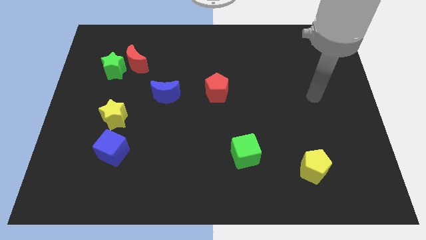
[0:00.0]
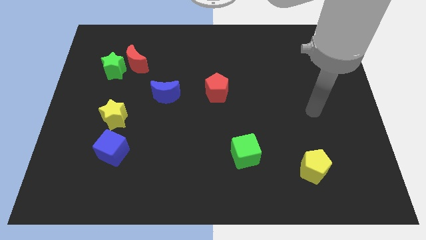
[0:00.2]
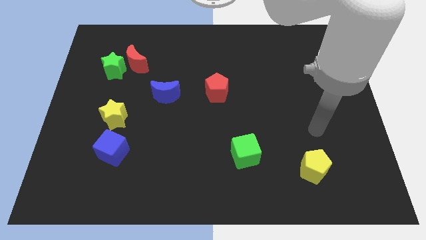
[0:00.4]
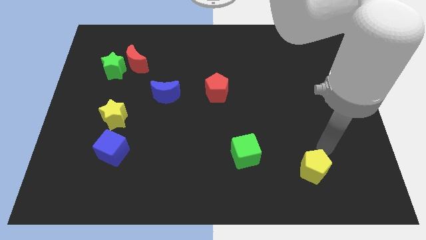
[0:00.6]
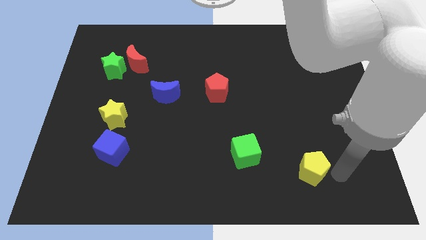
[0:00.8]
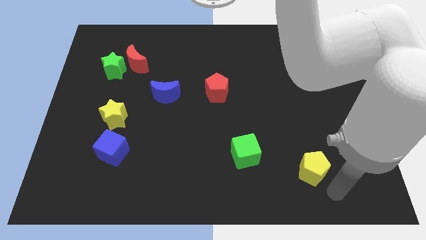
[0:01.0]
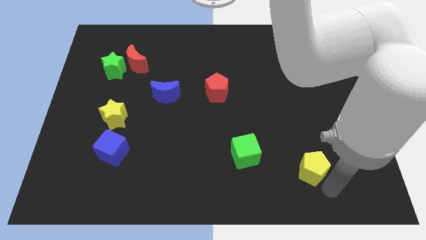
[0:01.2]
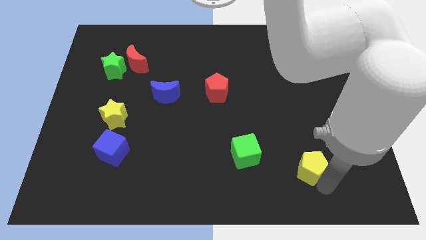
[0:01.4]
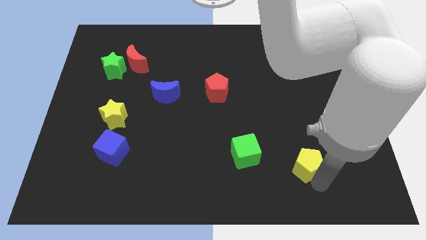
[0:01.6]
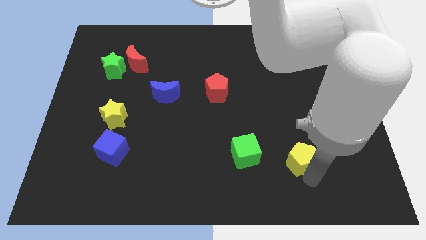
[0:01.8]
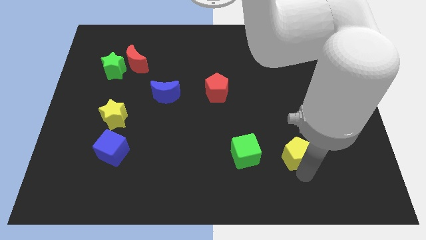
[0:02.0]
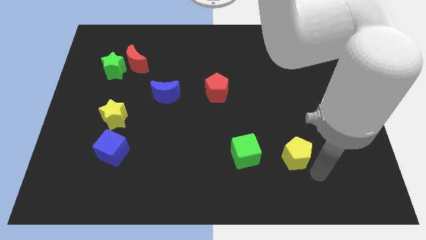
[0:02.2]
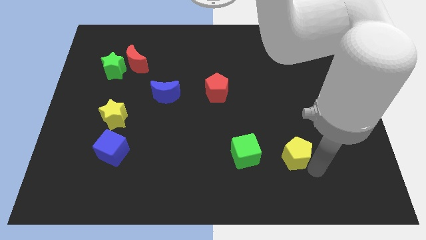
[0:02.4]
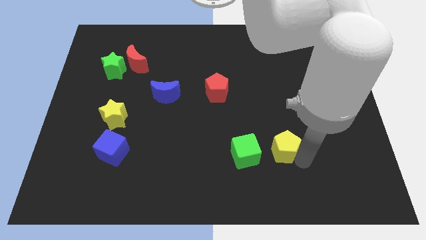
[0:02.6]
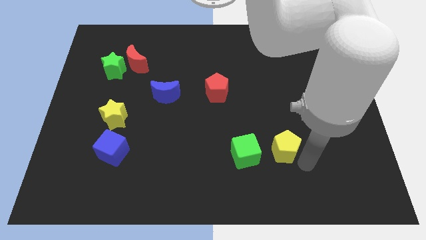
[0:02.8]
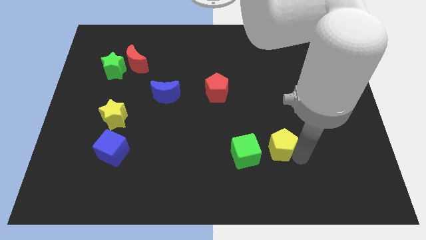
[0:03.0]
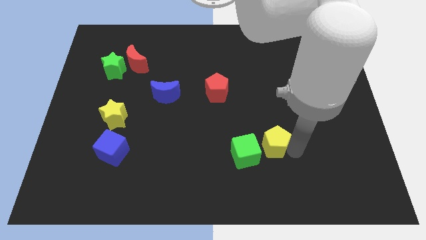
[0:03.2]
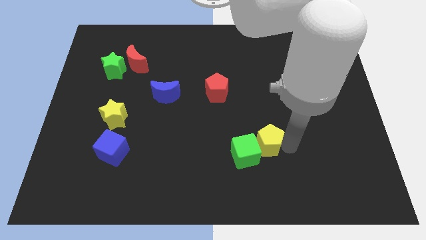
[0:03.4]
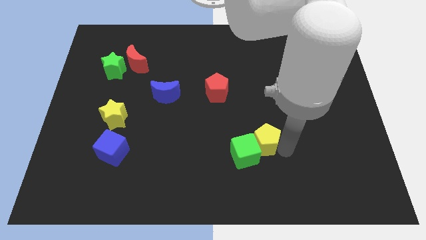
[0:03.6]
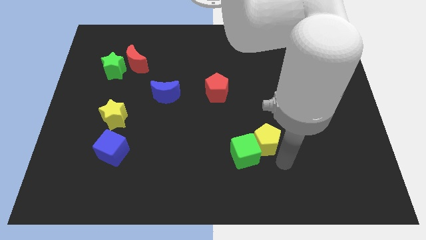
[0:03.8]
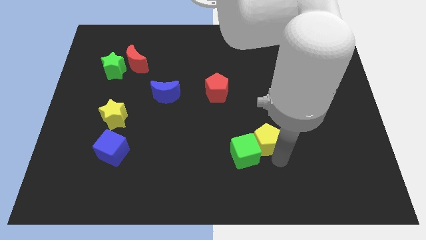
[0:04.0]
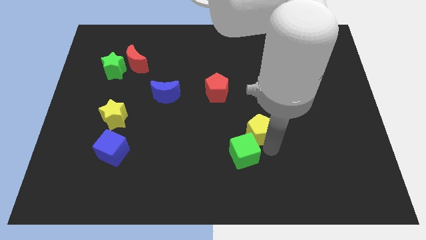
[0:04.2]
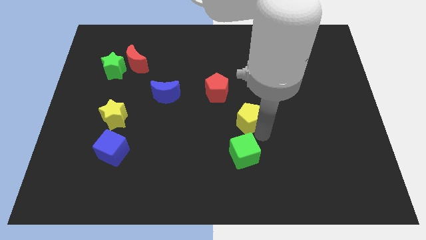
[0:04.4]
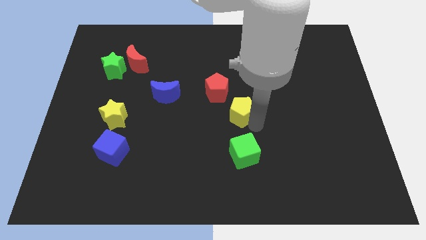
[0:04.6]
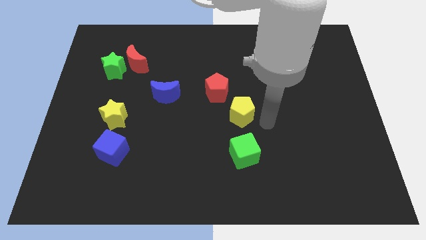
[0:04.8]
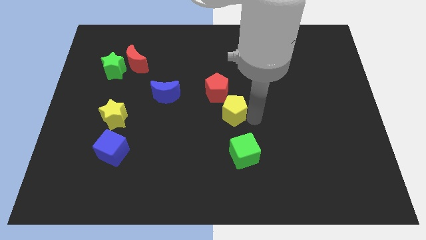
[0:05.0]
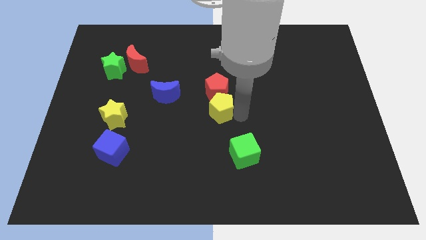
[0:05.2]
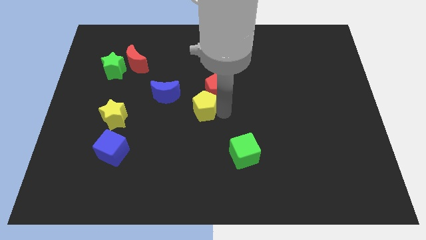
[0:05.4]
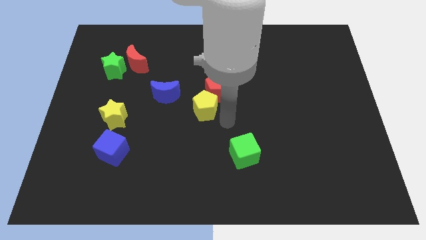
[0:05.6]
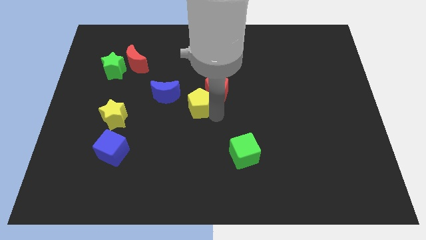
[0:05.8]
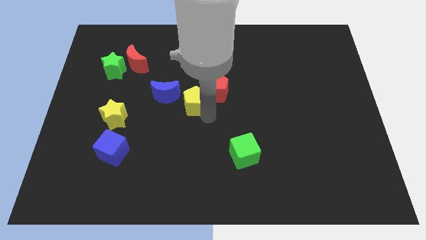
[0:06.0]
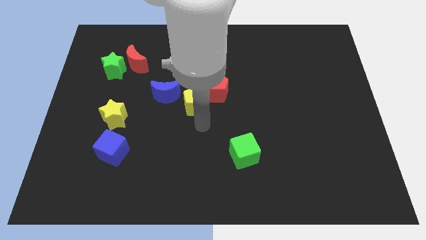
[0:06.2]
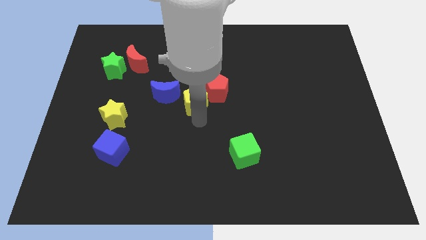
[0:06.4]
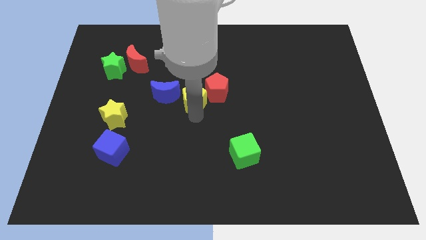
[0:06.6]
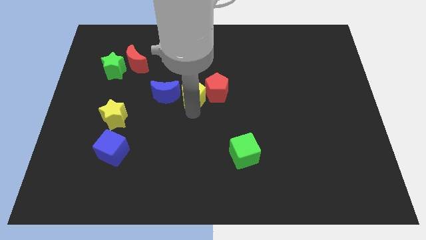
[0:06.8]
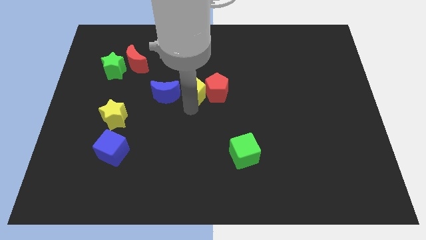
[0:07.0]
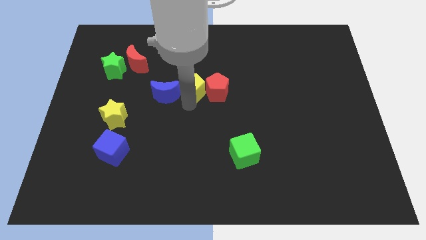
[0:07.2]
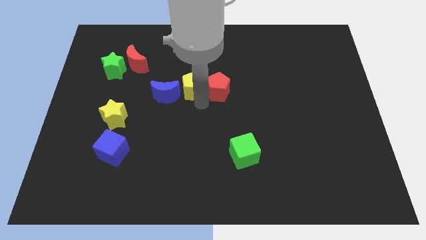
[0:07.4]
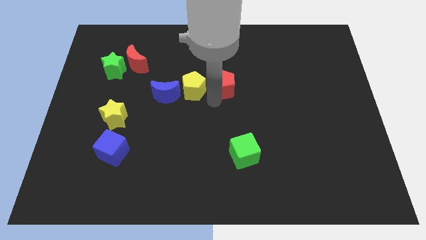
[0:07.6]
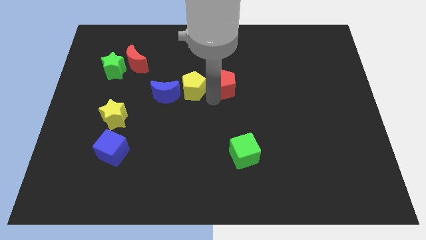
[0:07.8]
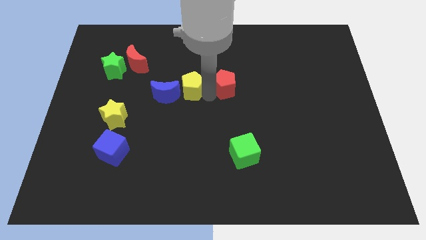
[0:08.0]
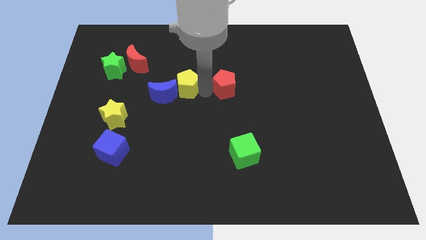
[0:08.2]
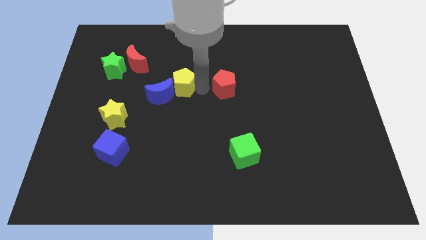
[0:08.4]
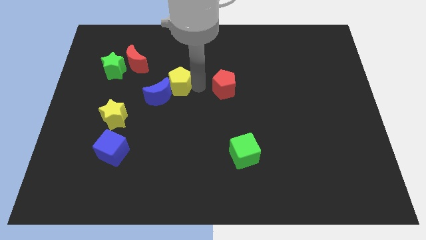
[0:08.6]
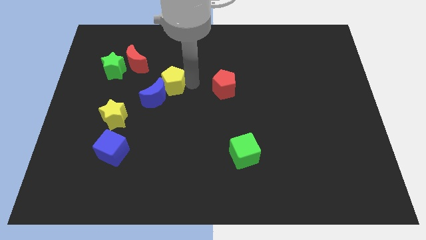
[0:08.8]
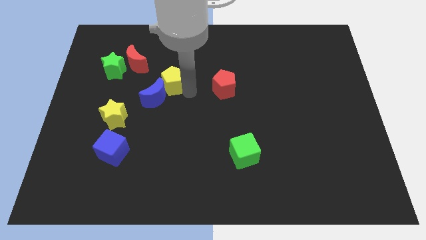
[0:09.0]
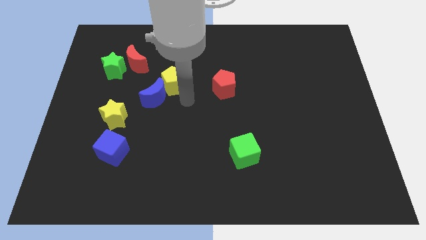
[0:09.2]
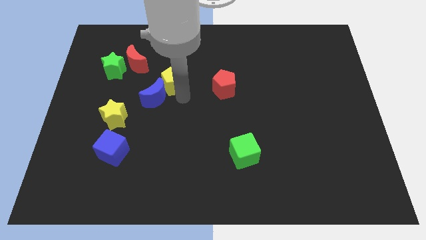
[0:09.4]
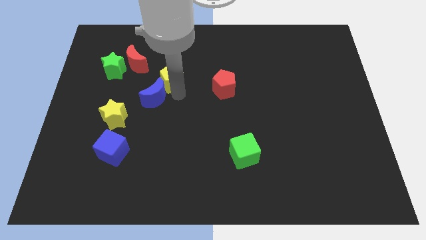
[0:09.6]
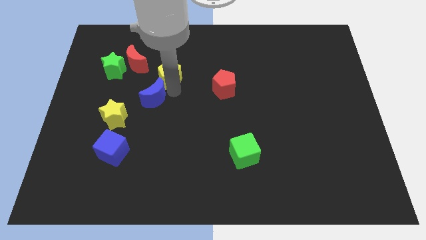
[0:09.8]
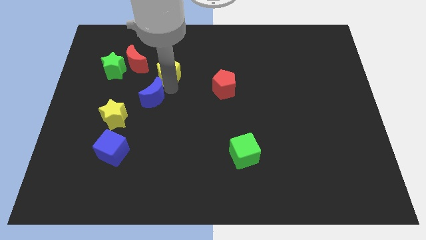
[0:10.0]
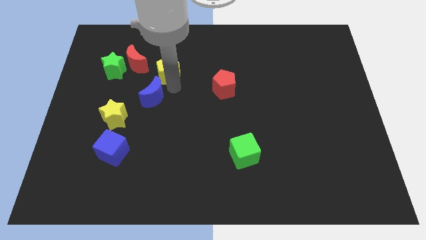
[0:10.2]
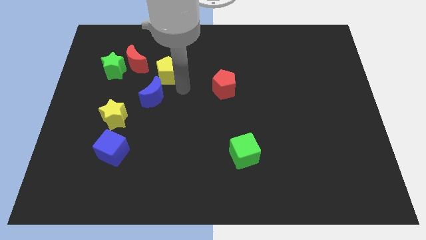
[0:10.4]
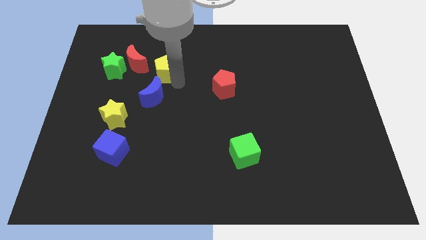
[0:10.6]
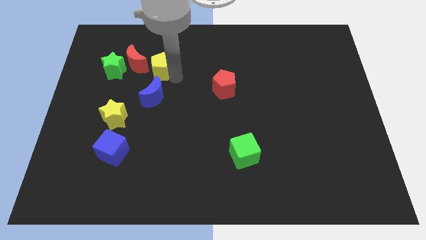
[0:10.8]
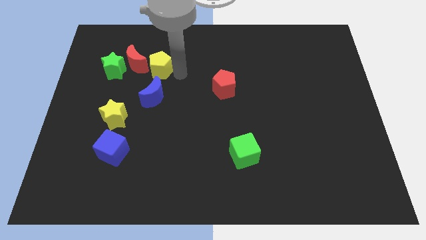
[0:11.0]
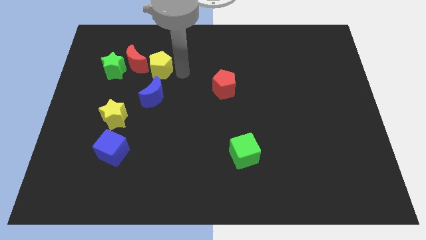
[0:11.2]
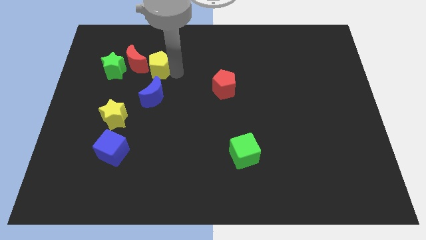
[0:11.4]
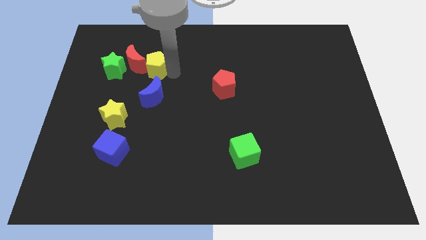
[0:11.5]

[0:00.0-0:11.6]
slide the yellow pentagon to the red moon

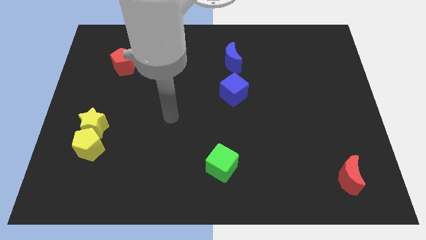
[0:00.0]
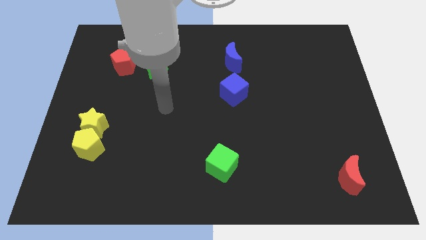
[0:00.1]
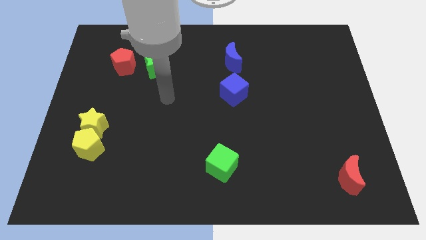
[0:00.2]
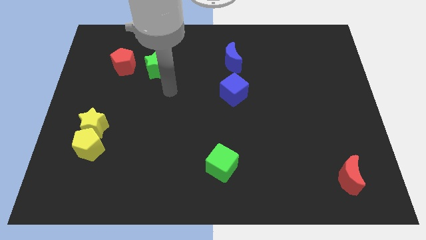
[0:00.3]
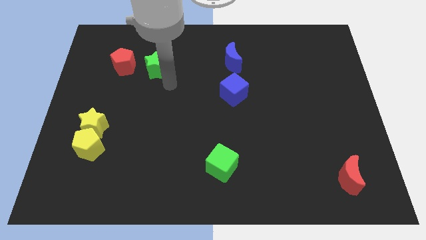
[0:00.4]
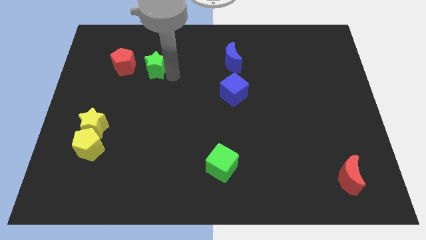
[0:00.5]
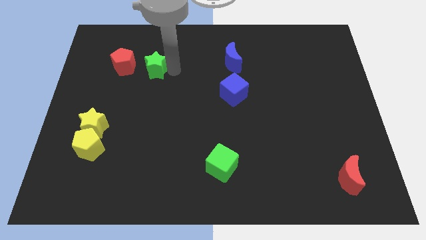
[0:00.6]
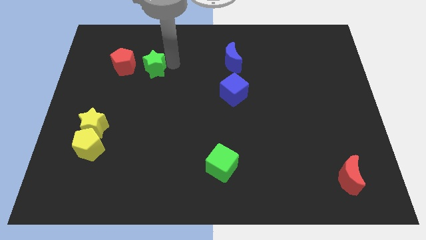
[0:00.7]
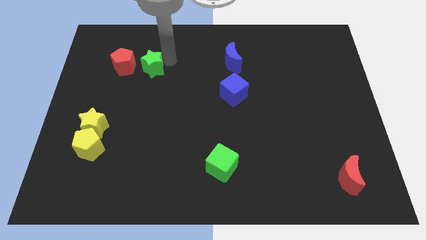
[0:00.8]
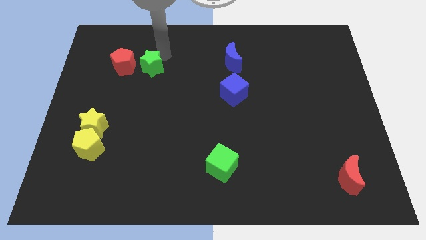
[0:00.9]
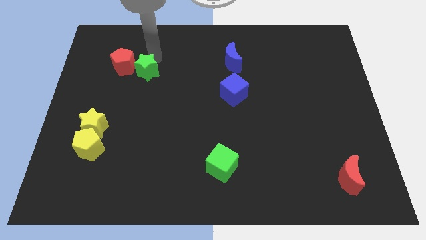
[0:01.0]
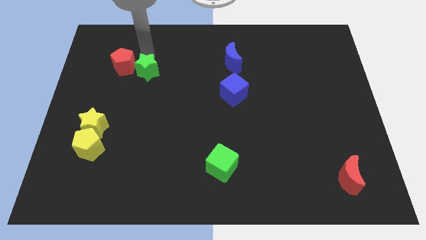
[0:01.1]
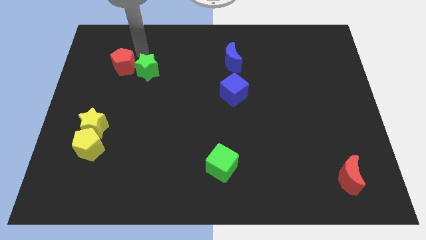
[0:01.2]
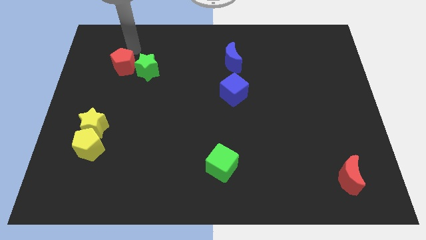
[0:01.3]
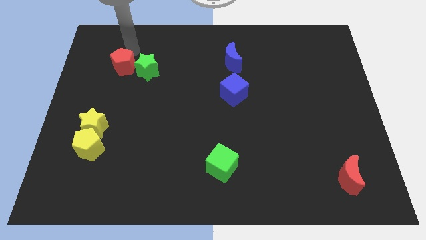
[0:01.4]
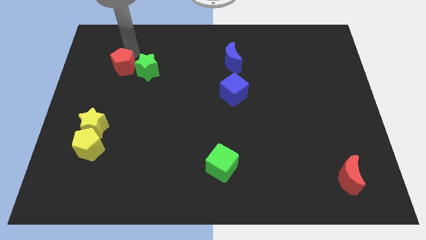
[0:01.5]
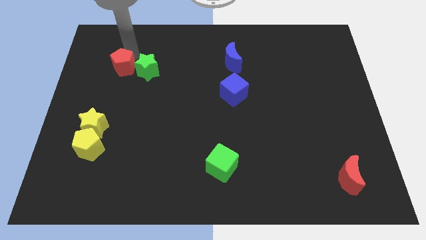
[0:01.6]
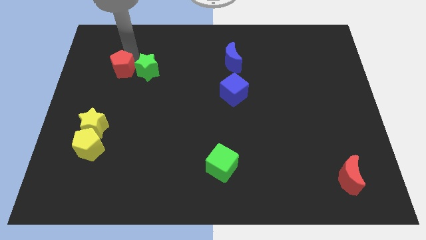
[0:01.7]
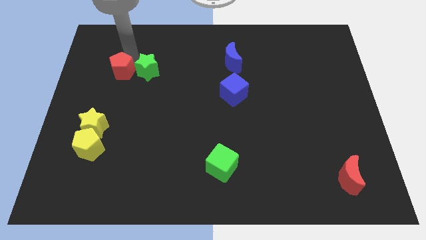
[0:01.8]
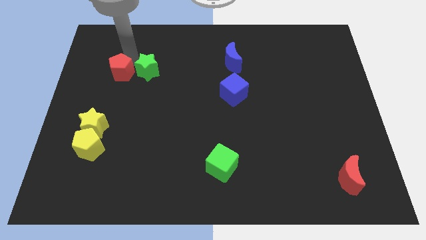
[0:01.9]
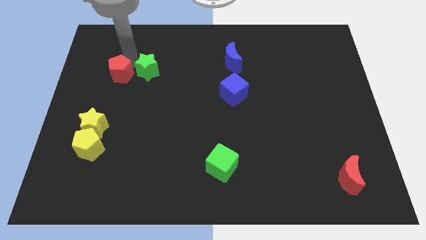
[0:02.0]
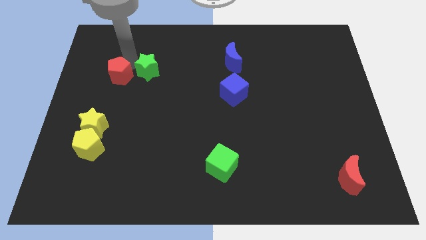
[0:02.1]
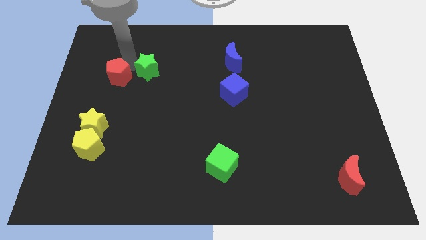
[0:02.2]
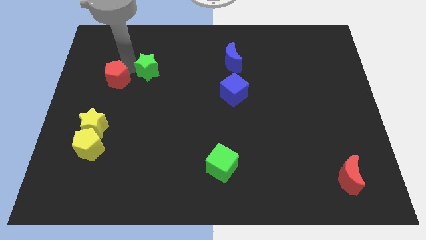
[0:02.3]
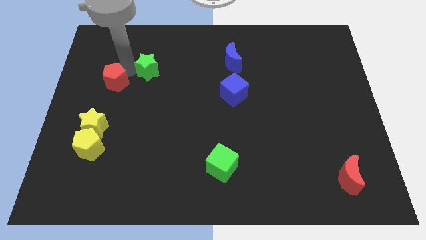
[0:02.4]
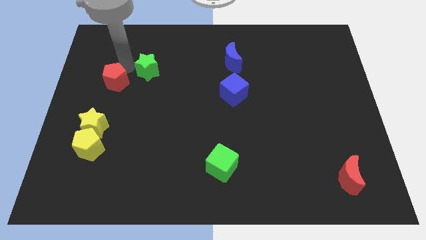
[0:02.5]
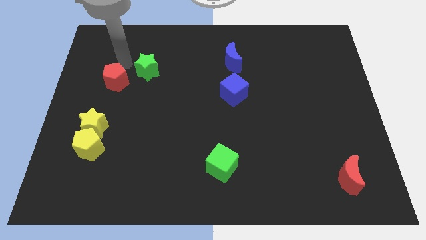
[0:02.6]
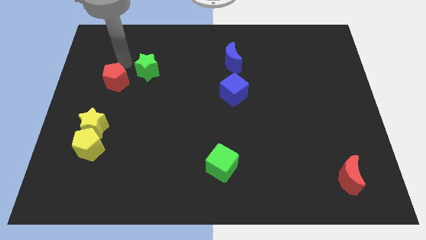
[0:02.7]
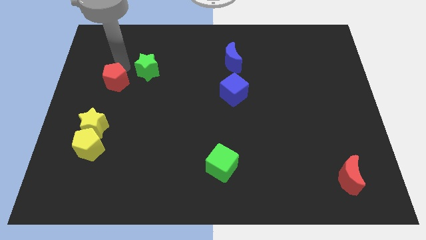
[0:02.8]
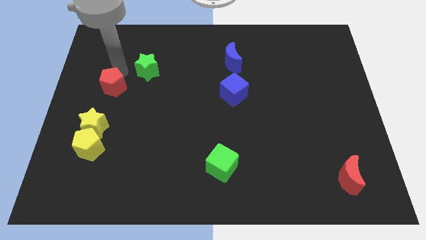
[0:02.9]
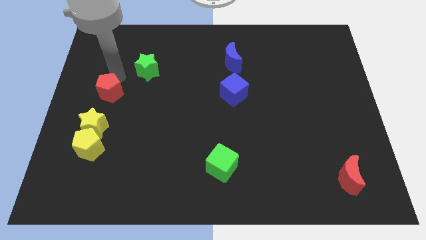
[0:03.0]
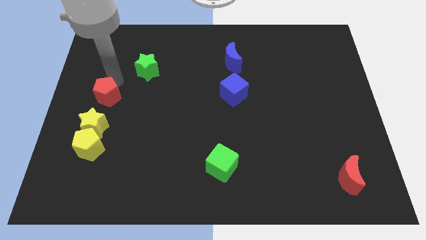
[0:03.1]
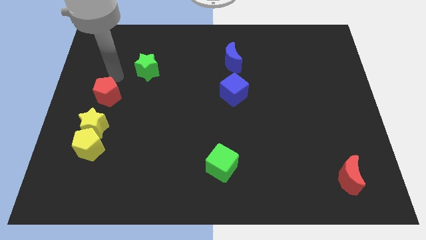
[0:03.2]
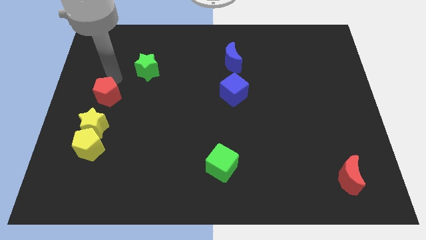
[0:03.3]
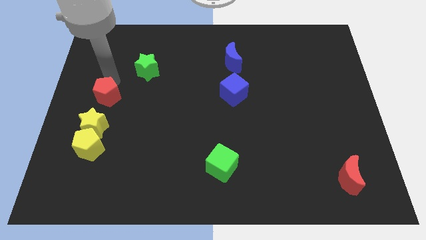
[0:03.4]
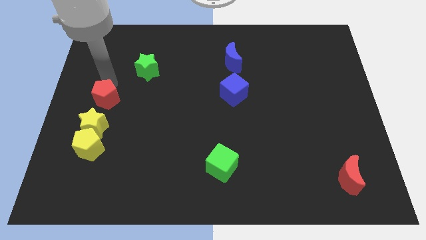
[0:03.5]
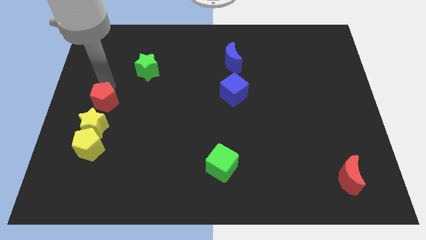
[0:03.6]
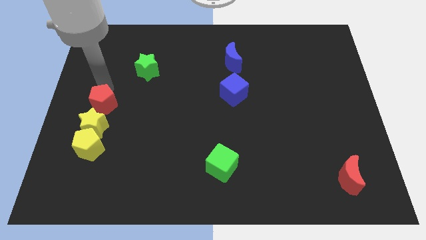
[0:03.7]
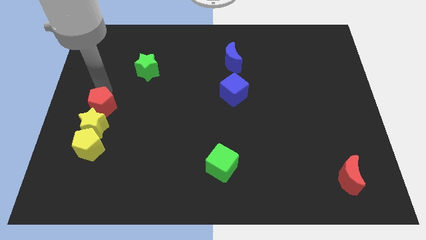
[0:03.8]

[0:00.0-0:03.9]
put the red pentagon next to the yellow star
